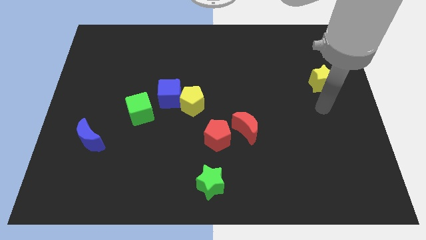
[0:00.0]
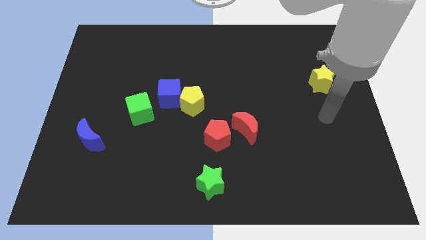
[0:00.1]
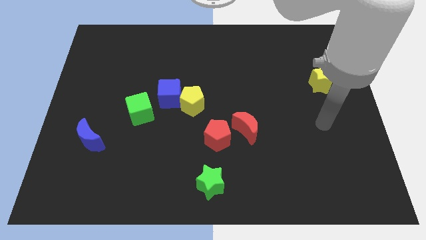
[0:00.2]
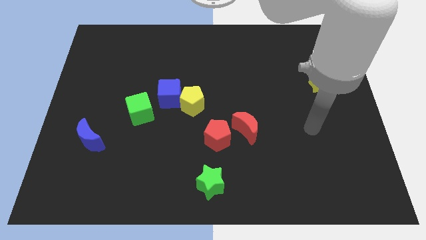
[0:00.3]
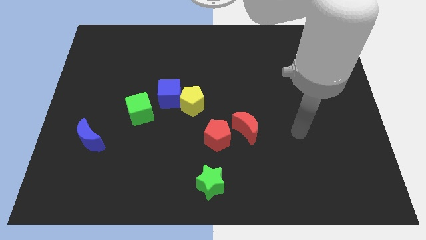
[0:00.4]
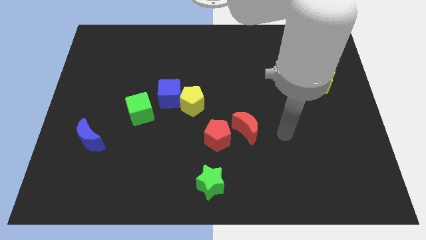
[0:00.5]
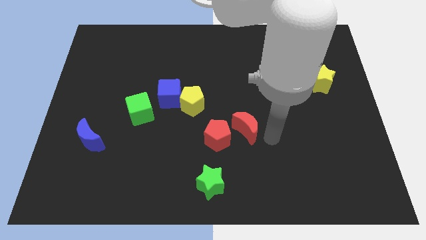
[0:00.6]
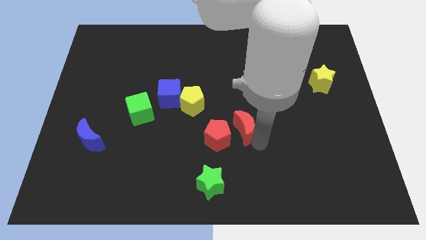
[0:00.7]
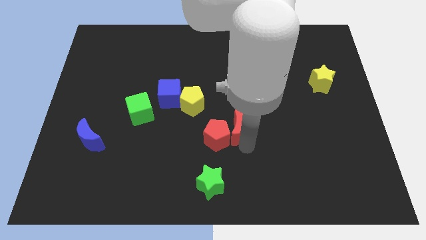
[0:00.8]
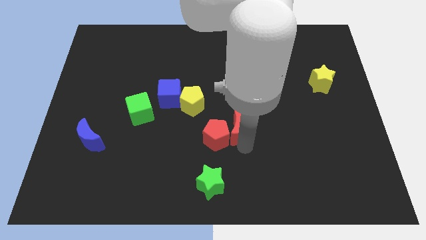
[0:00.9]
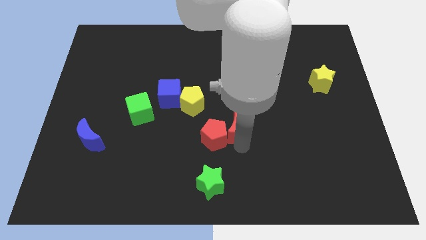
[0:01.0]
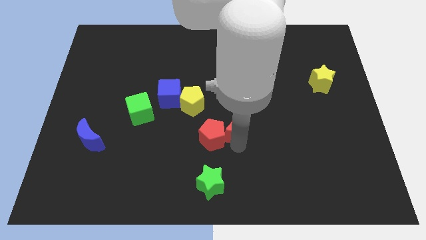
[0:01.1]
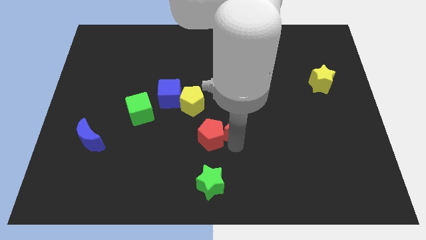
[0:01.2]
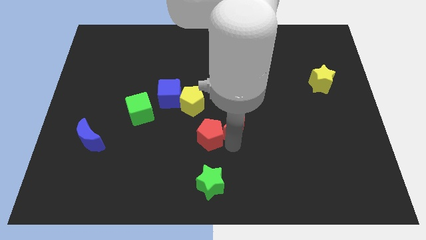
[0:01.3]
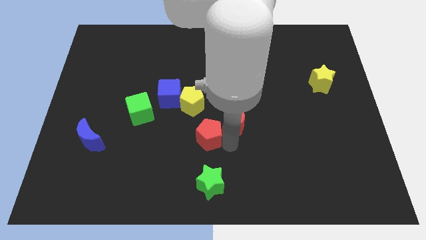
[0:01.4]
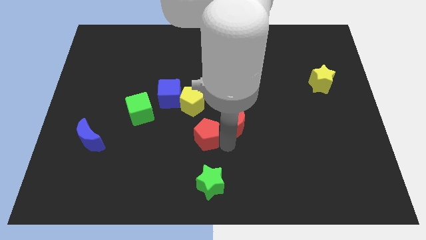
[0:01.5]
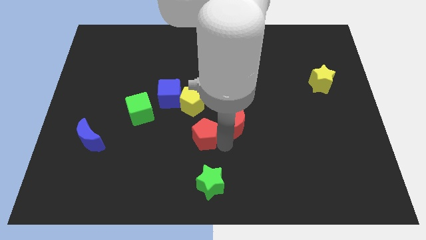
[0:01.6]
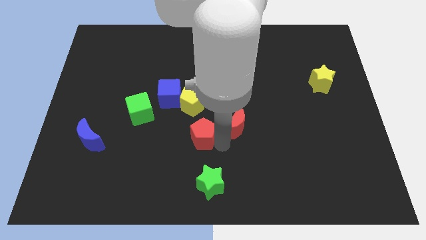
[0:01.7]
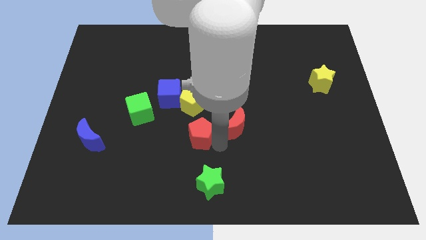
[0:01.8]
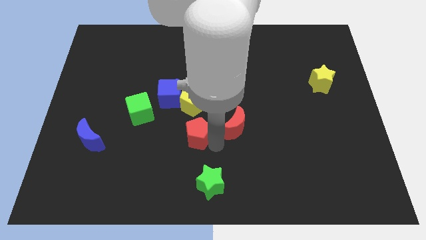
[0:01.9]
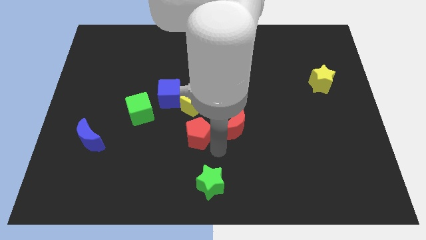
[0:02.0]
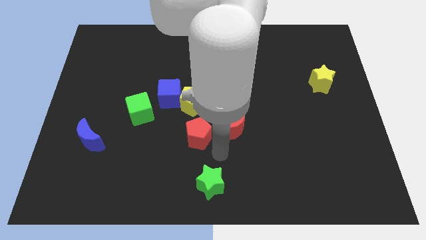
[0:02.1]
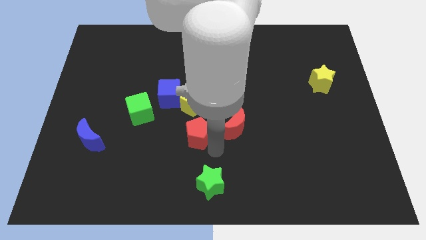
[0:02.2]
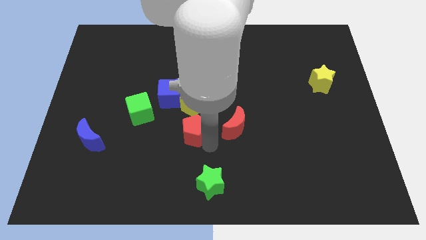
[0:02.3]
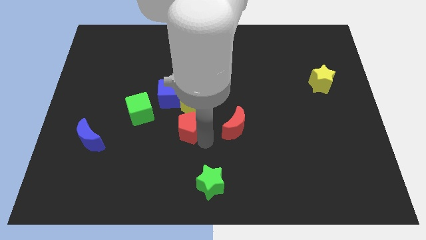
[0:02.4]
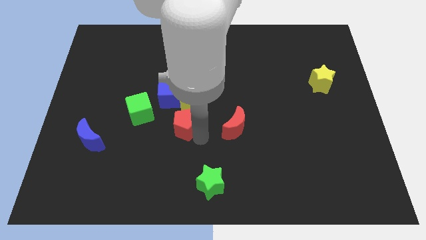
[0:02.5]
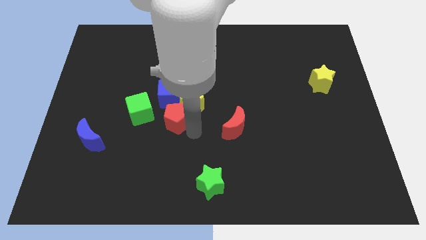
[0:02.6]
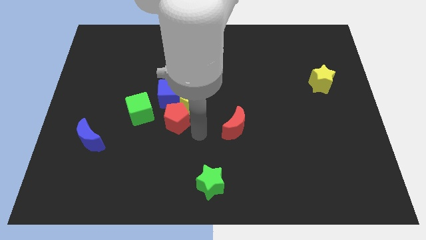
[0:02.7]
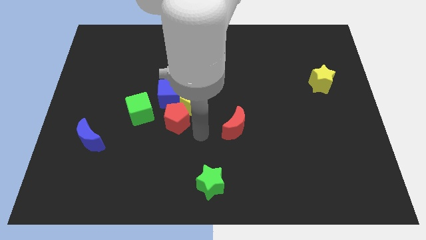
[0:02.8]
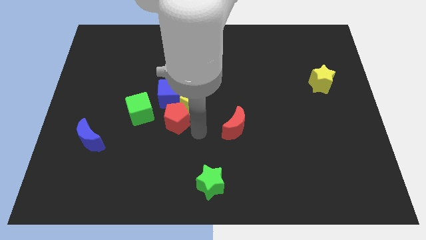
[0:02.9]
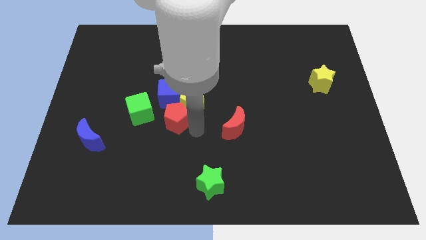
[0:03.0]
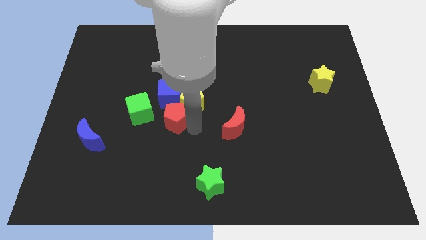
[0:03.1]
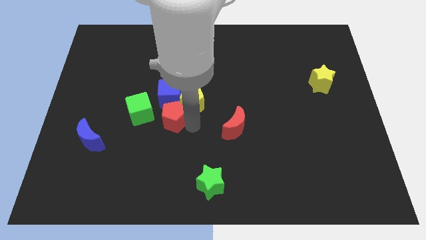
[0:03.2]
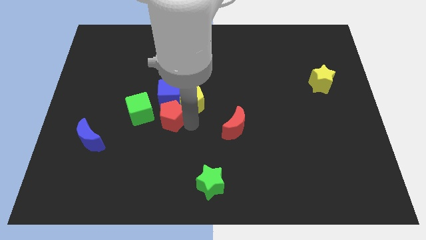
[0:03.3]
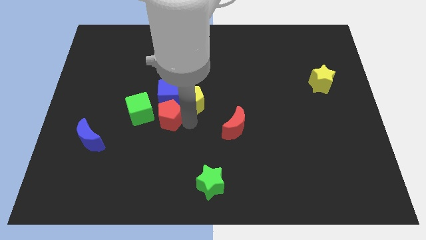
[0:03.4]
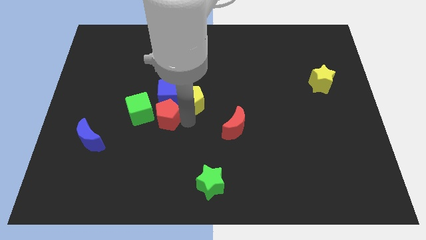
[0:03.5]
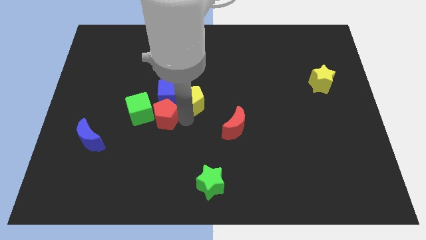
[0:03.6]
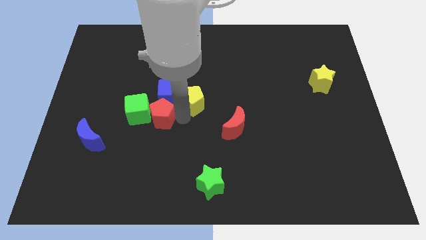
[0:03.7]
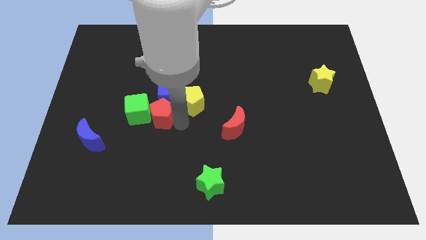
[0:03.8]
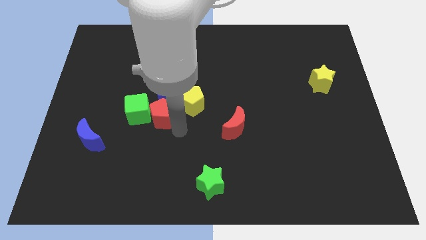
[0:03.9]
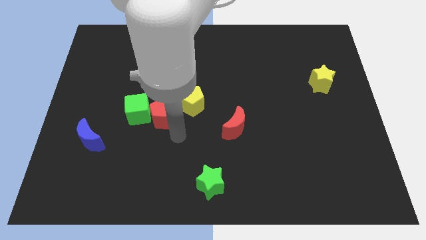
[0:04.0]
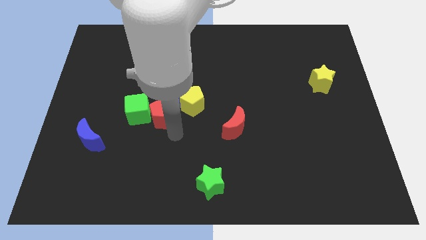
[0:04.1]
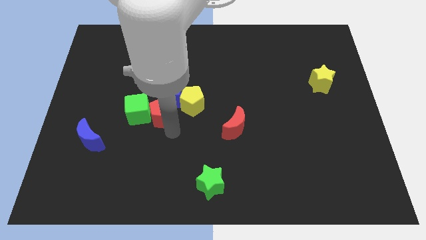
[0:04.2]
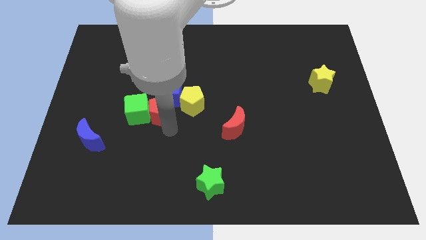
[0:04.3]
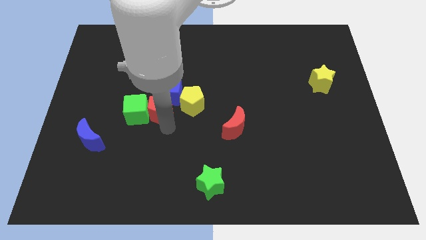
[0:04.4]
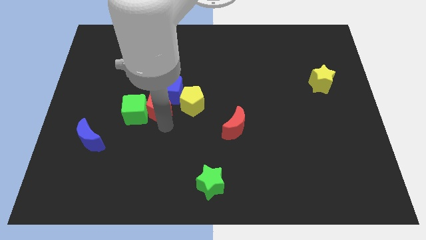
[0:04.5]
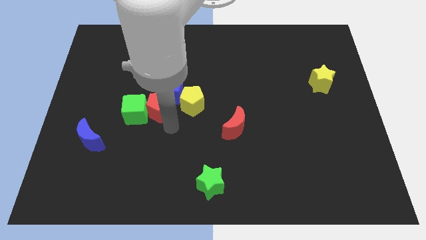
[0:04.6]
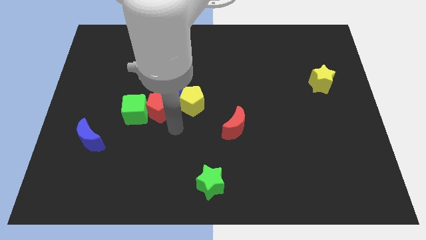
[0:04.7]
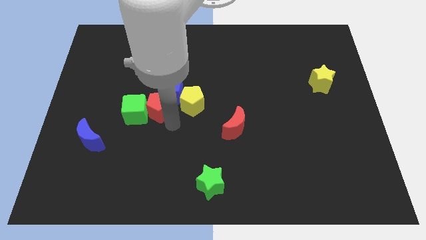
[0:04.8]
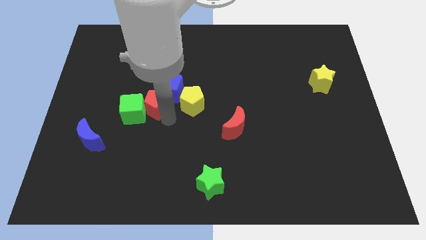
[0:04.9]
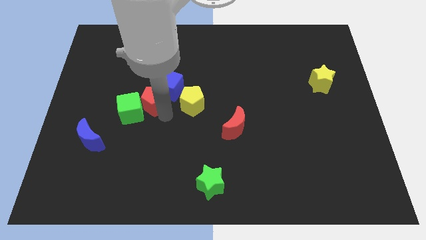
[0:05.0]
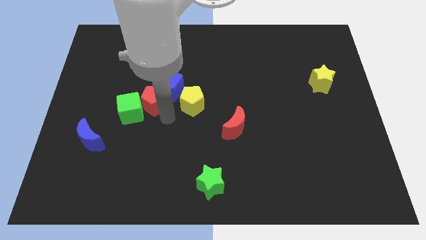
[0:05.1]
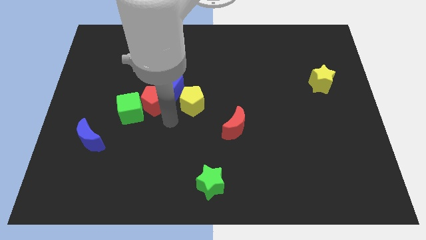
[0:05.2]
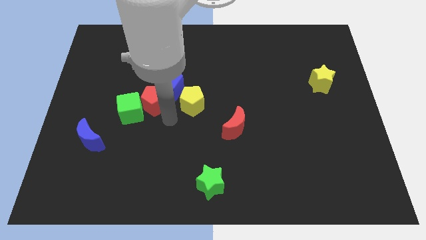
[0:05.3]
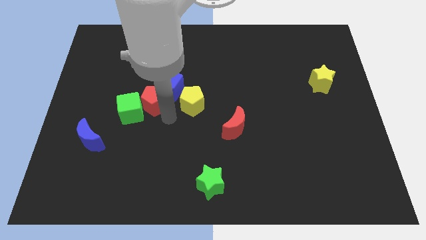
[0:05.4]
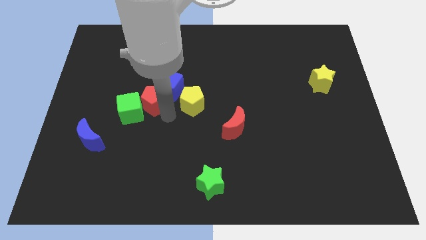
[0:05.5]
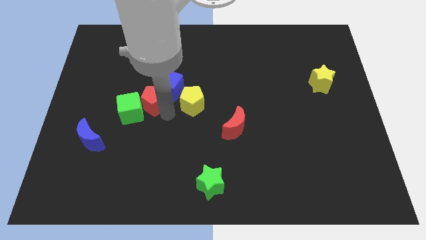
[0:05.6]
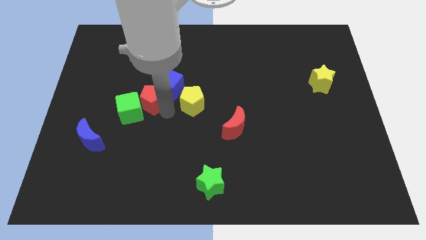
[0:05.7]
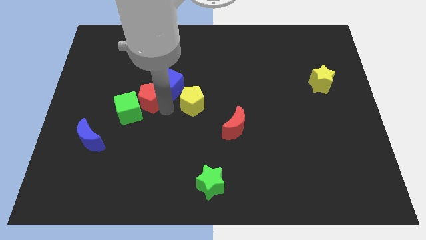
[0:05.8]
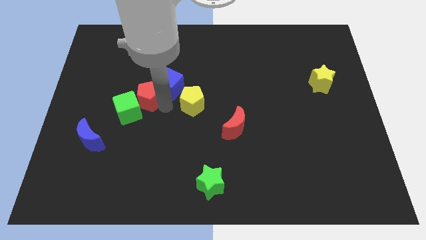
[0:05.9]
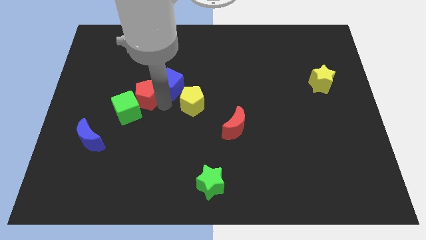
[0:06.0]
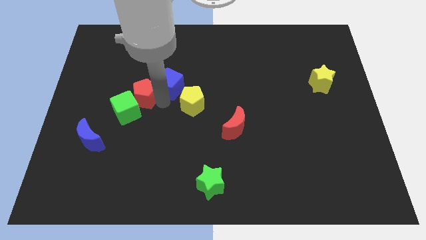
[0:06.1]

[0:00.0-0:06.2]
slide the red pentagon upwards and to the left

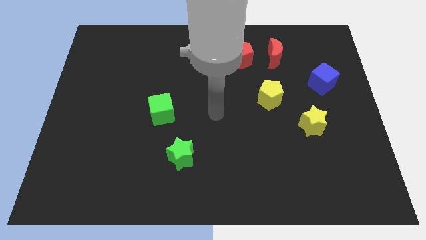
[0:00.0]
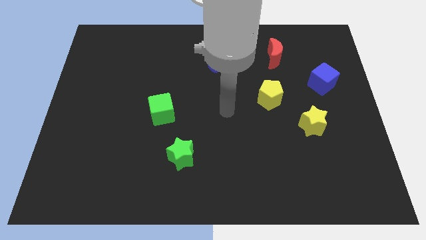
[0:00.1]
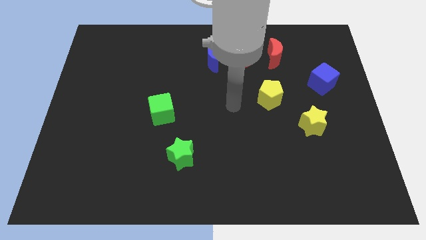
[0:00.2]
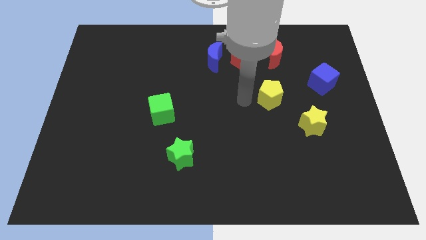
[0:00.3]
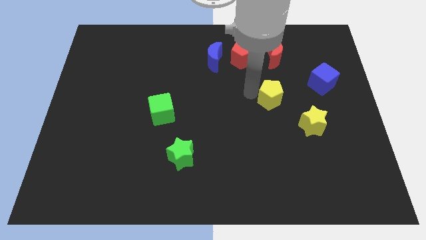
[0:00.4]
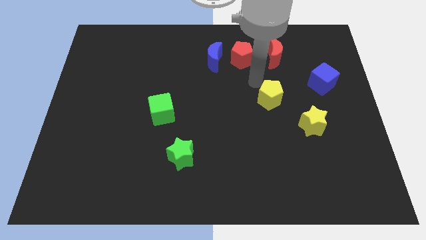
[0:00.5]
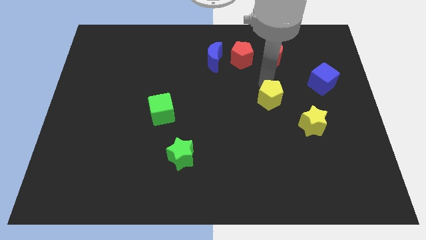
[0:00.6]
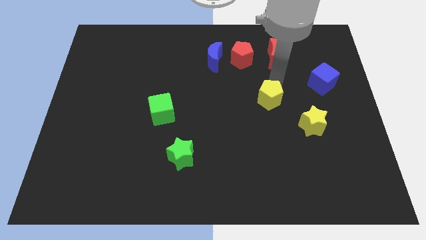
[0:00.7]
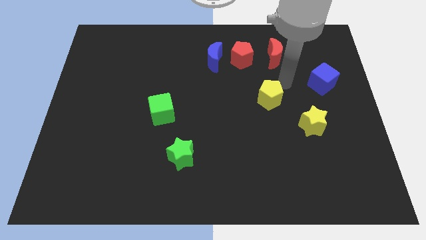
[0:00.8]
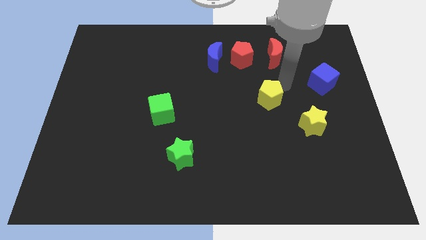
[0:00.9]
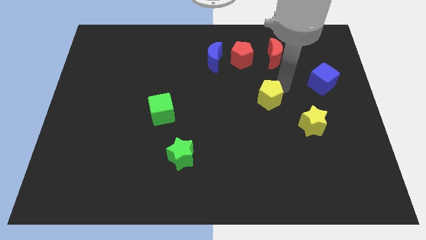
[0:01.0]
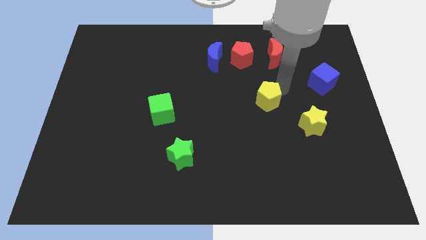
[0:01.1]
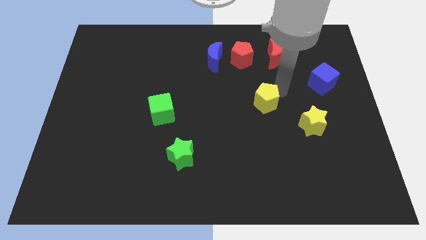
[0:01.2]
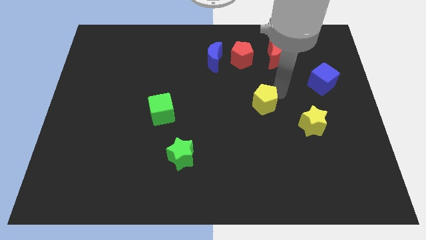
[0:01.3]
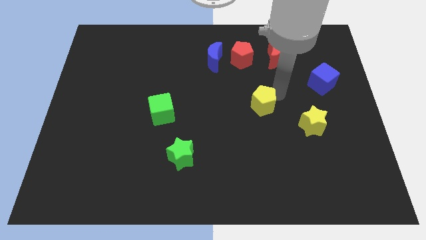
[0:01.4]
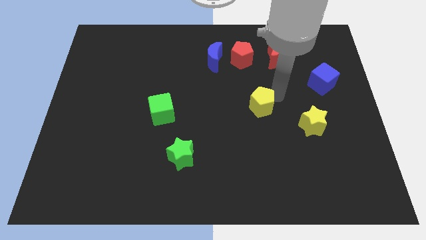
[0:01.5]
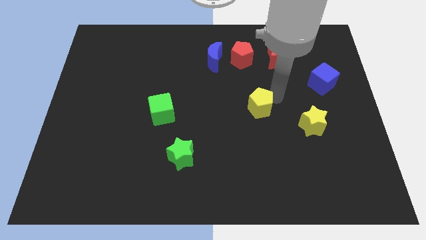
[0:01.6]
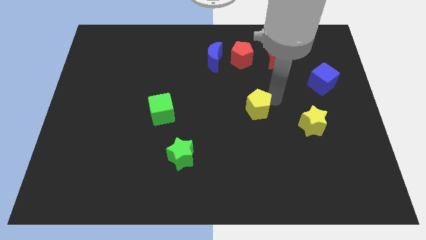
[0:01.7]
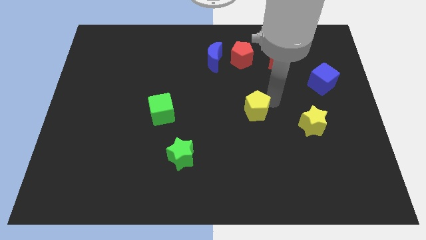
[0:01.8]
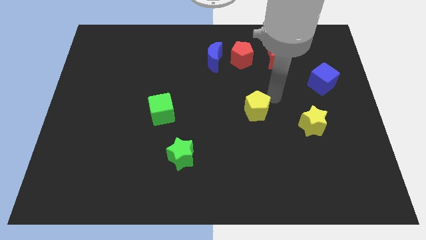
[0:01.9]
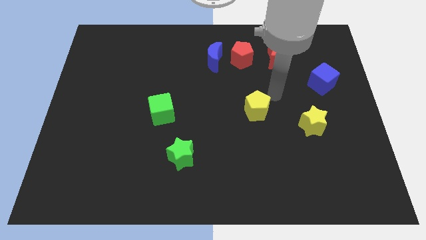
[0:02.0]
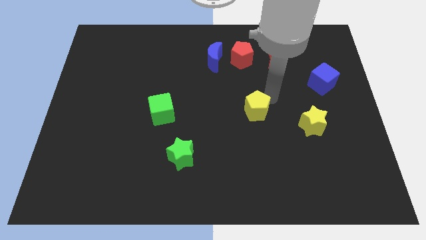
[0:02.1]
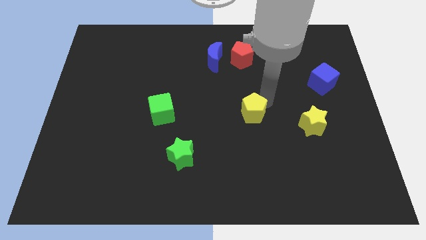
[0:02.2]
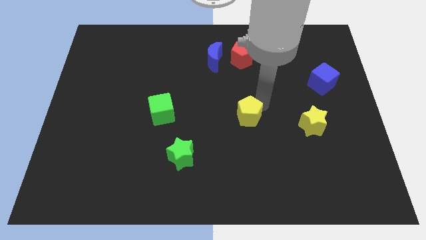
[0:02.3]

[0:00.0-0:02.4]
slightly push the yellow pentagon downwards and to the left diagonally
